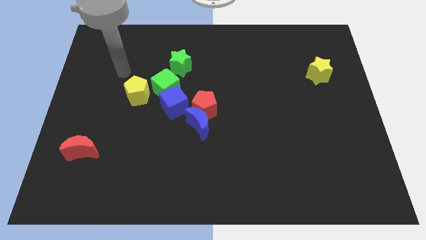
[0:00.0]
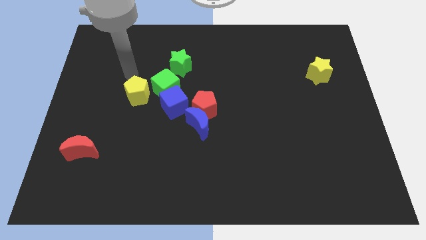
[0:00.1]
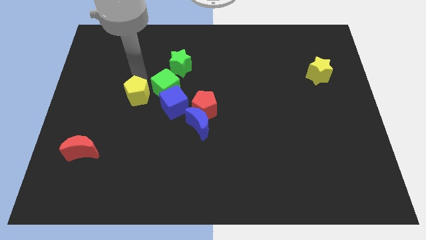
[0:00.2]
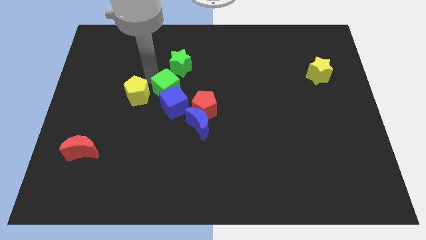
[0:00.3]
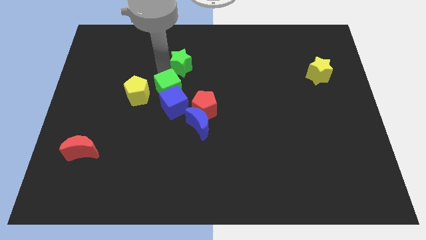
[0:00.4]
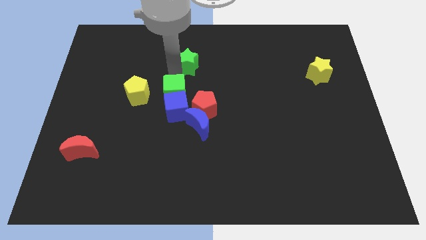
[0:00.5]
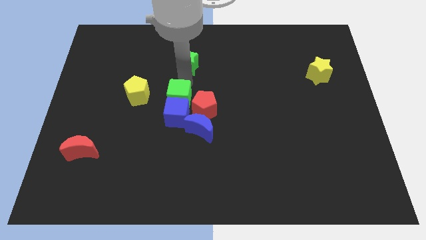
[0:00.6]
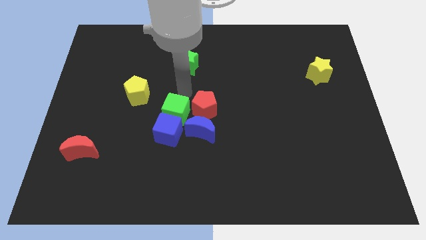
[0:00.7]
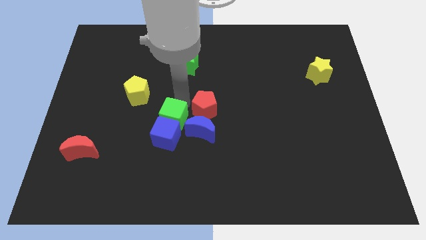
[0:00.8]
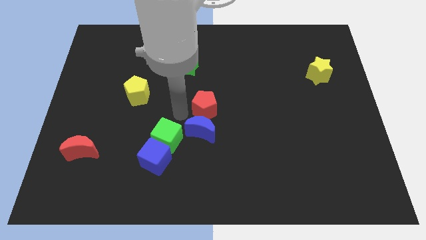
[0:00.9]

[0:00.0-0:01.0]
move the red pentagon away from the blue moon and blue cube

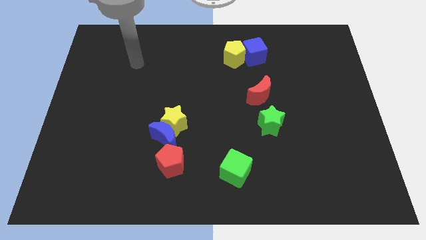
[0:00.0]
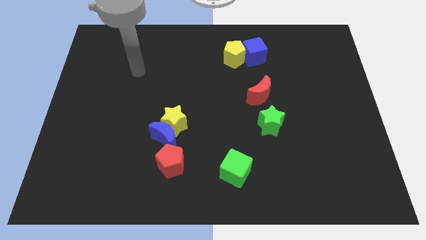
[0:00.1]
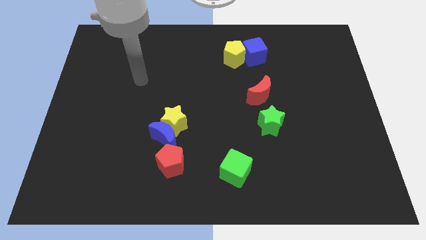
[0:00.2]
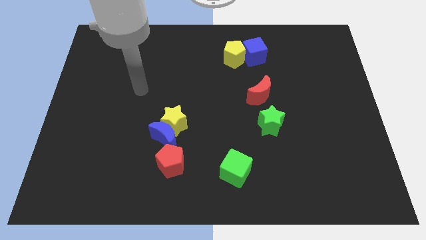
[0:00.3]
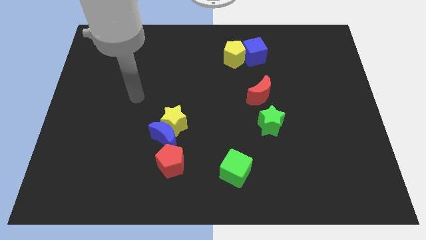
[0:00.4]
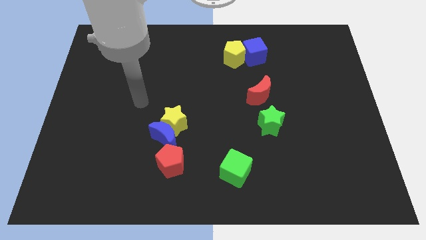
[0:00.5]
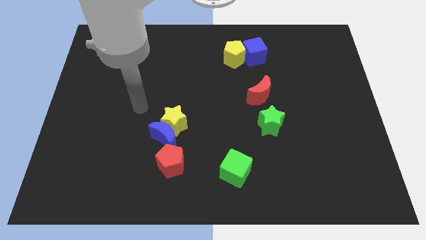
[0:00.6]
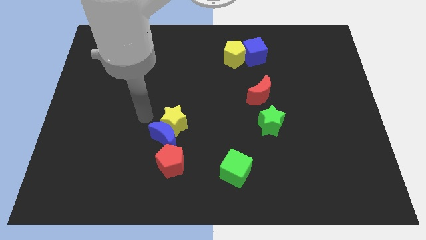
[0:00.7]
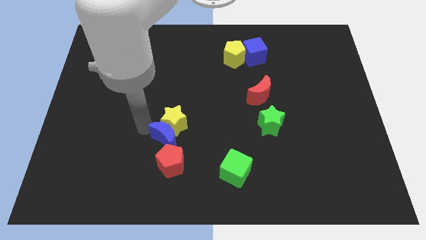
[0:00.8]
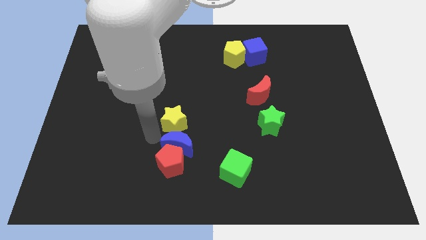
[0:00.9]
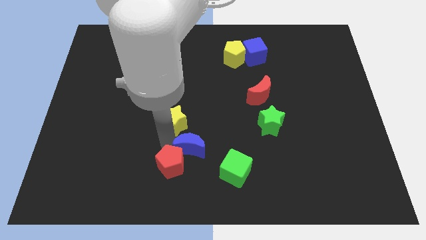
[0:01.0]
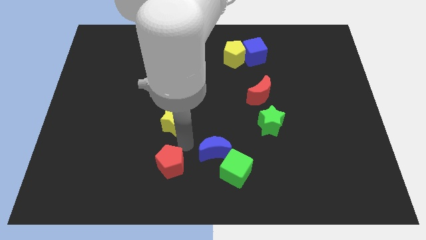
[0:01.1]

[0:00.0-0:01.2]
move the yellow star away from the blue moon

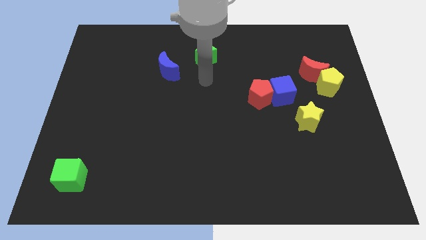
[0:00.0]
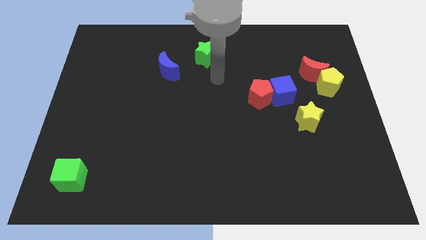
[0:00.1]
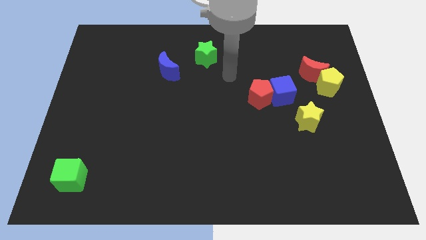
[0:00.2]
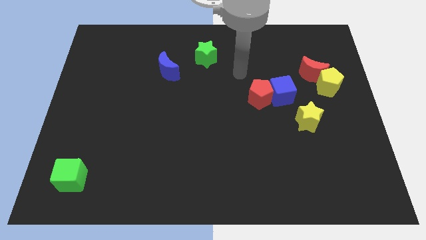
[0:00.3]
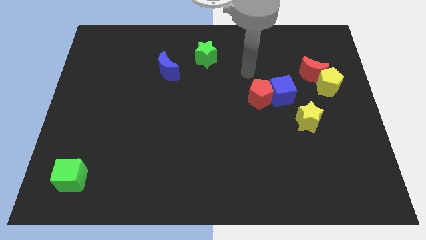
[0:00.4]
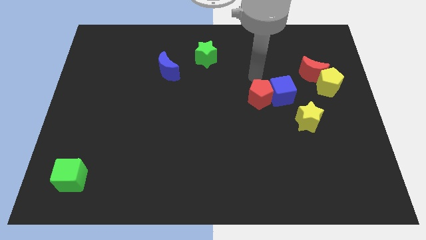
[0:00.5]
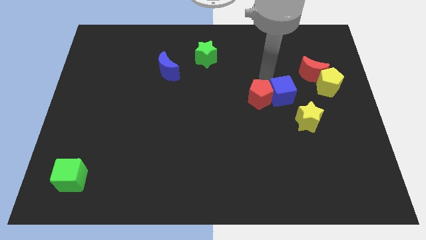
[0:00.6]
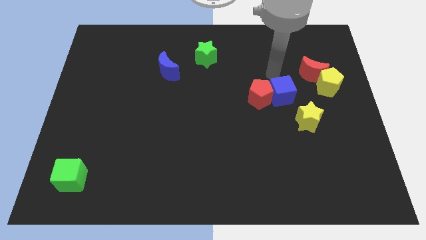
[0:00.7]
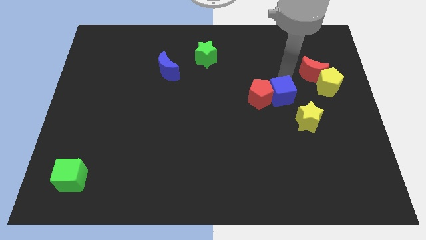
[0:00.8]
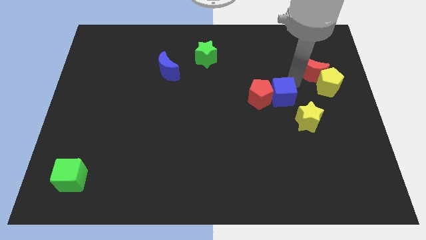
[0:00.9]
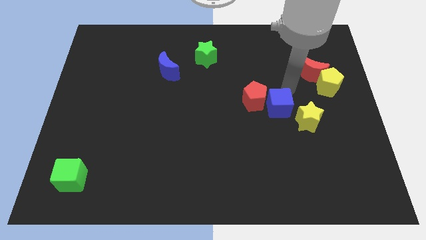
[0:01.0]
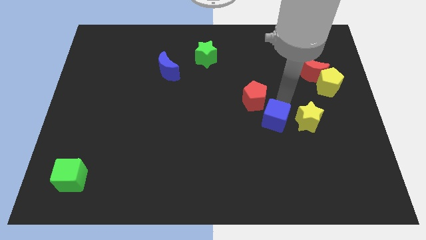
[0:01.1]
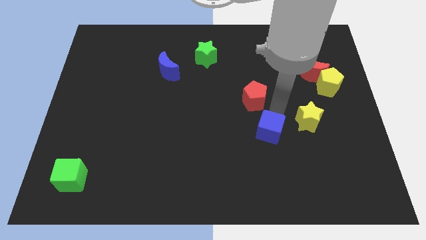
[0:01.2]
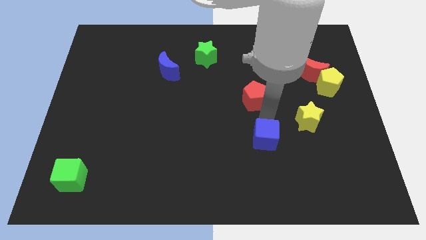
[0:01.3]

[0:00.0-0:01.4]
separate the red pentagon from the blue cube

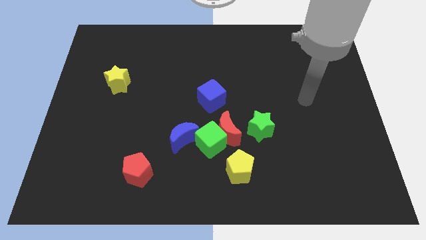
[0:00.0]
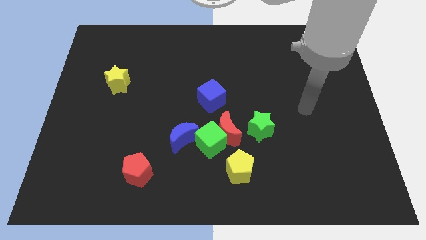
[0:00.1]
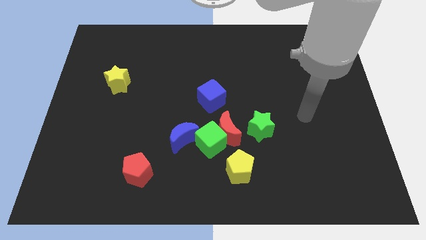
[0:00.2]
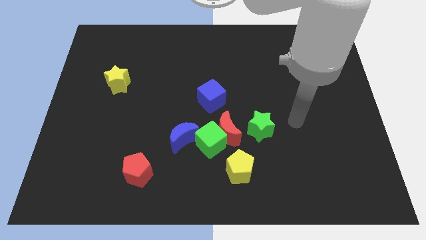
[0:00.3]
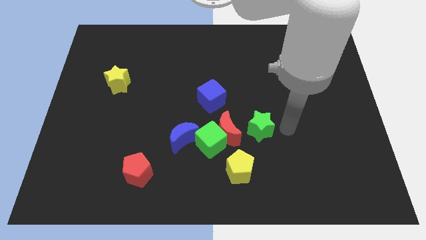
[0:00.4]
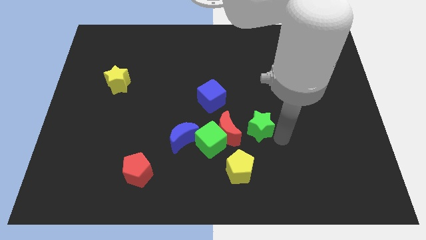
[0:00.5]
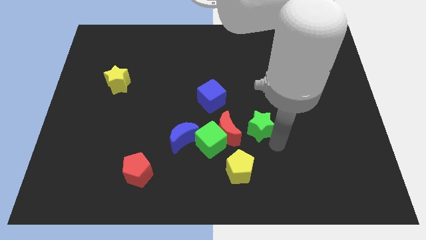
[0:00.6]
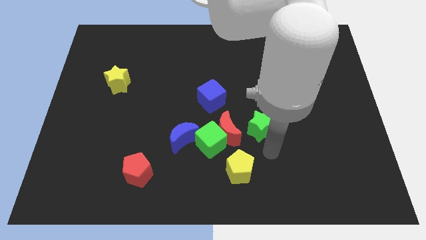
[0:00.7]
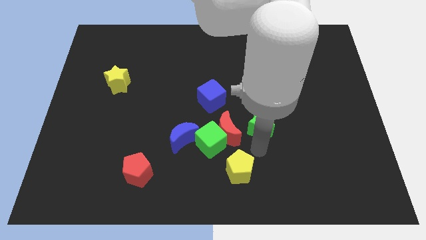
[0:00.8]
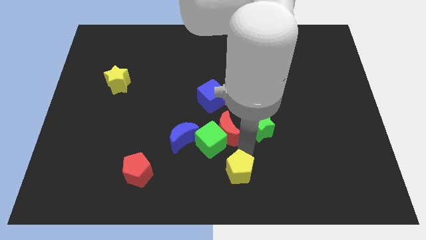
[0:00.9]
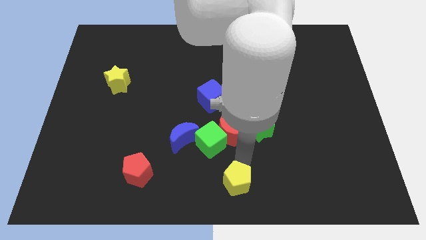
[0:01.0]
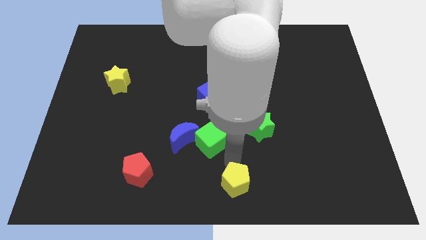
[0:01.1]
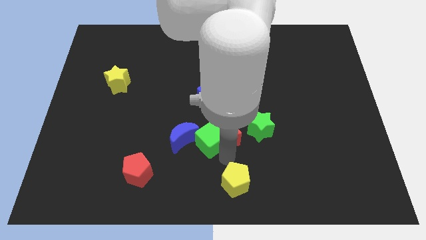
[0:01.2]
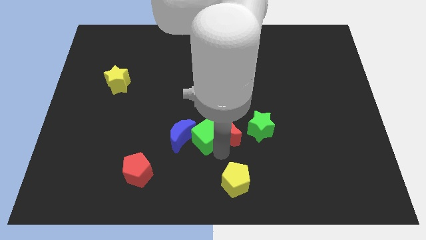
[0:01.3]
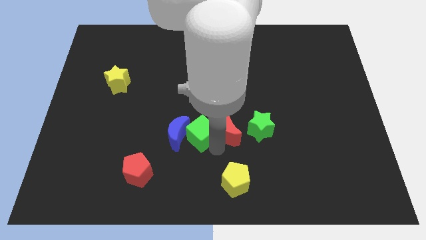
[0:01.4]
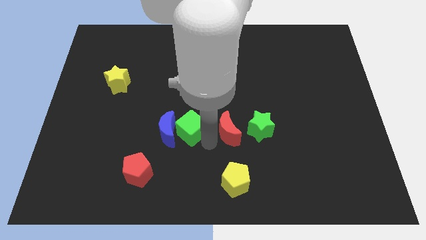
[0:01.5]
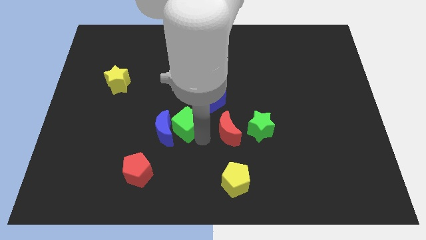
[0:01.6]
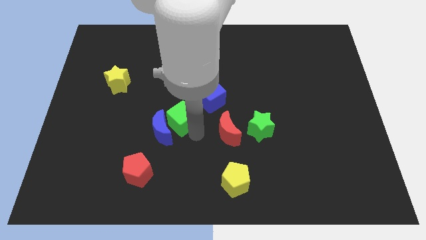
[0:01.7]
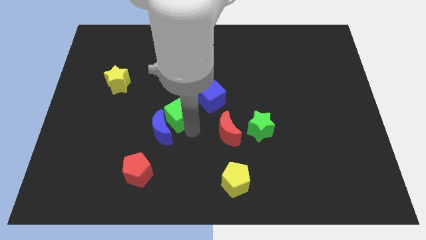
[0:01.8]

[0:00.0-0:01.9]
separate the green cube from the group

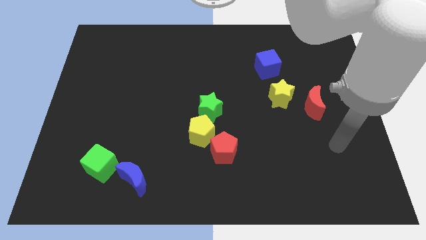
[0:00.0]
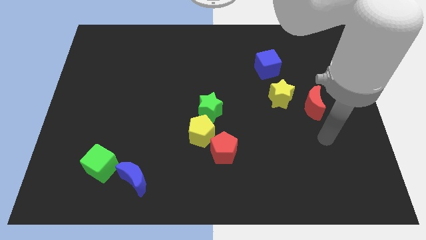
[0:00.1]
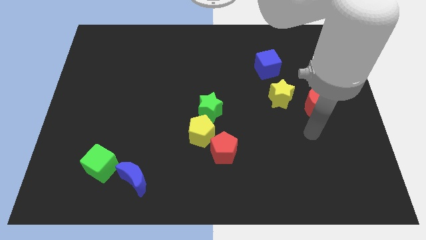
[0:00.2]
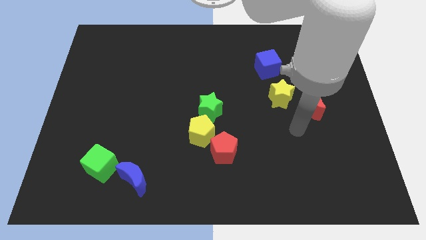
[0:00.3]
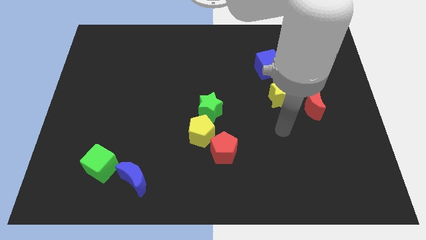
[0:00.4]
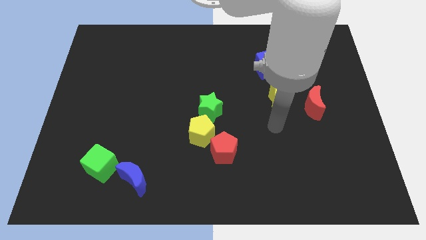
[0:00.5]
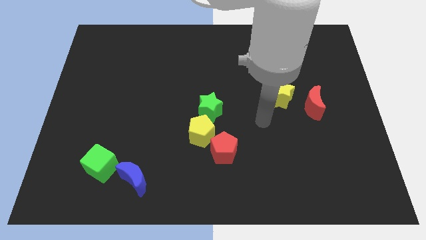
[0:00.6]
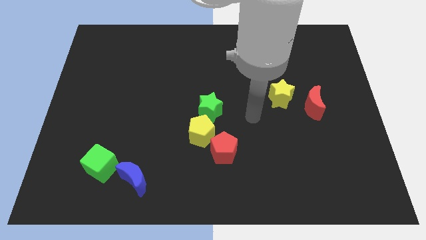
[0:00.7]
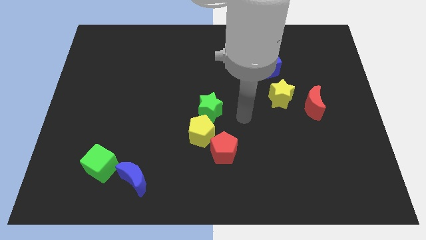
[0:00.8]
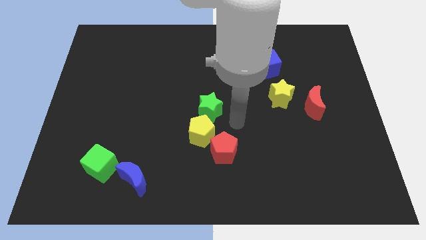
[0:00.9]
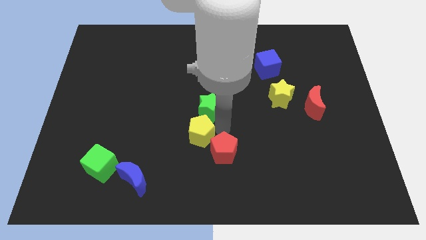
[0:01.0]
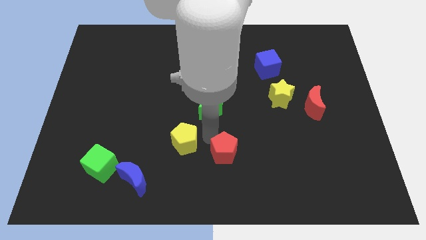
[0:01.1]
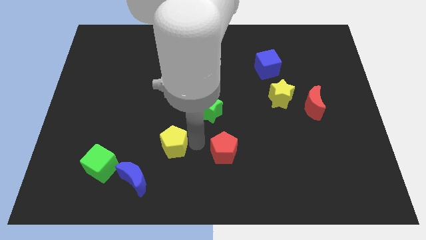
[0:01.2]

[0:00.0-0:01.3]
move the red pentagon away from the yellow pentagon

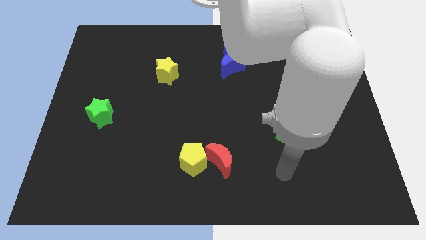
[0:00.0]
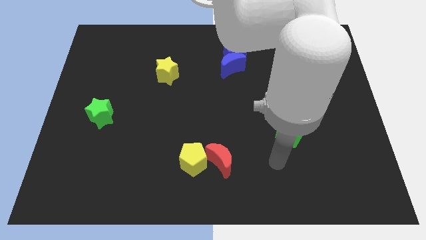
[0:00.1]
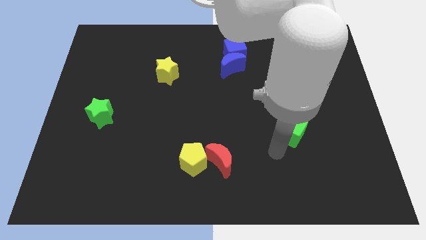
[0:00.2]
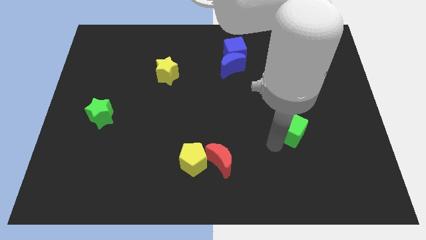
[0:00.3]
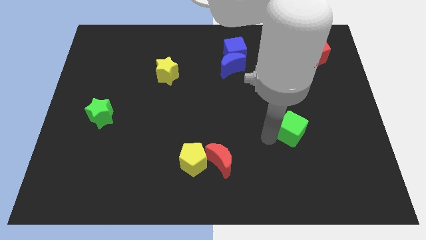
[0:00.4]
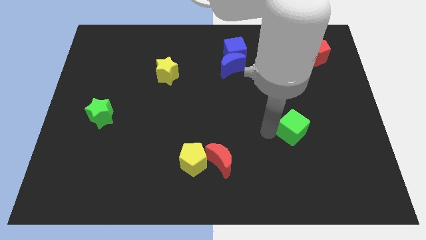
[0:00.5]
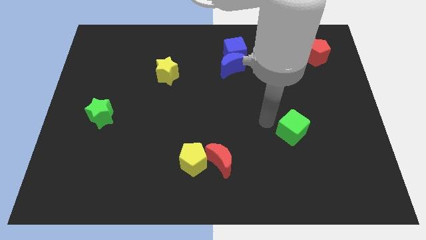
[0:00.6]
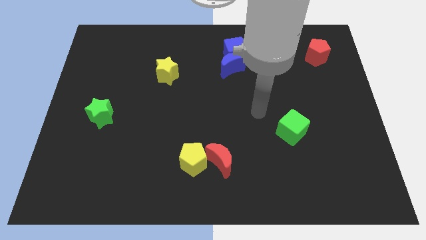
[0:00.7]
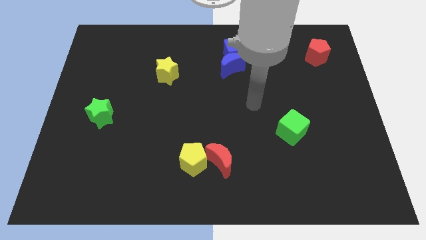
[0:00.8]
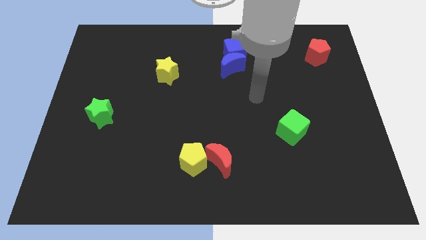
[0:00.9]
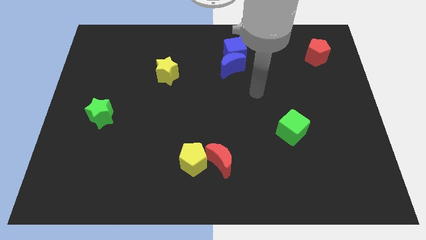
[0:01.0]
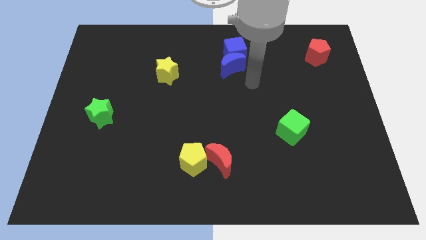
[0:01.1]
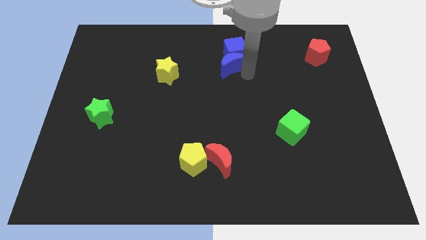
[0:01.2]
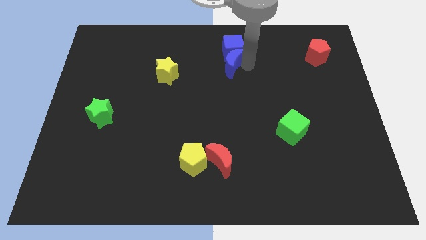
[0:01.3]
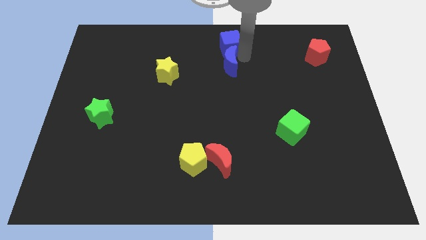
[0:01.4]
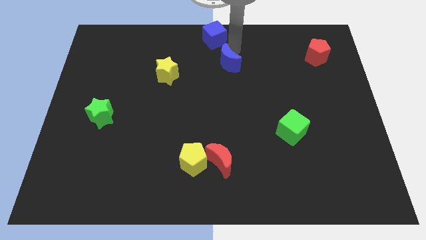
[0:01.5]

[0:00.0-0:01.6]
separate the blue moon from the blue cube

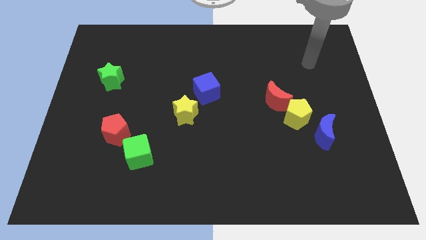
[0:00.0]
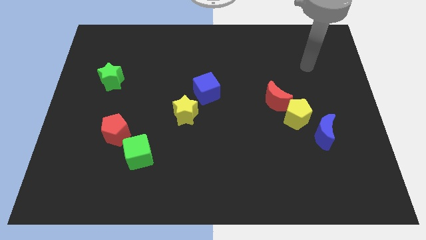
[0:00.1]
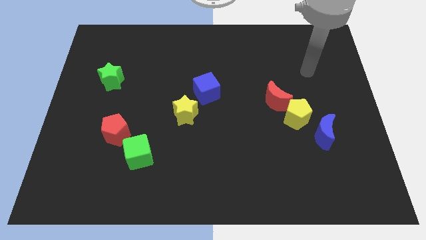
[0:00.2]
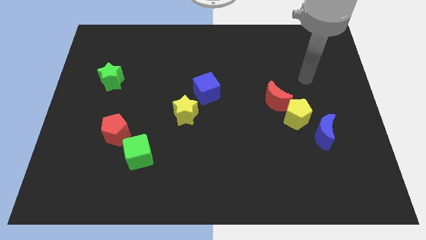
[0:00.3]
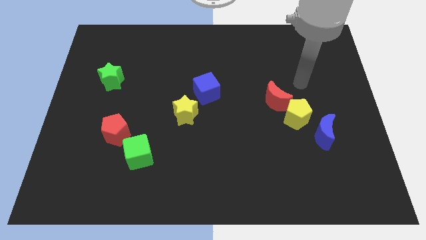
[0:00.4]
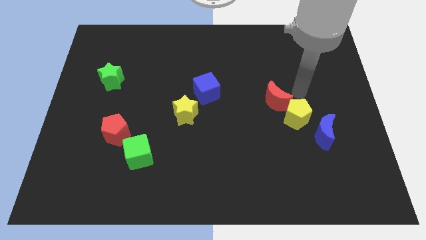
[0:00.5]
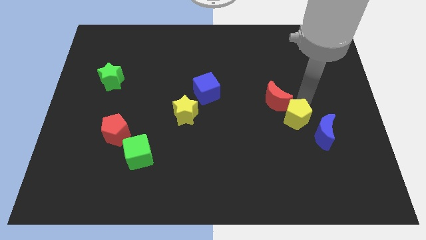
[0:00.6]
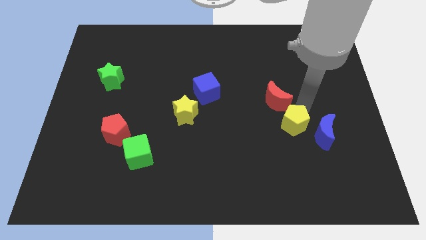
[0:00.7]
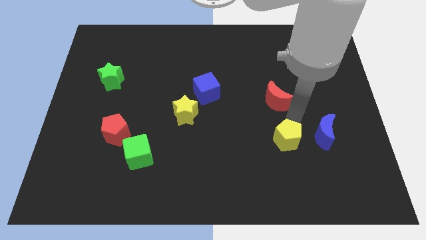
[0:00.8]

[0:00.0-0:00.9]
separate the red moon from the yellow pentagon
